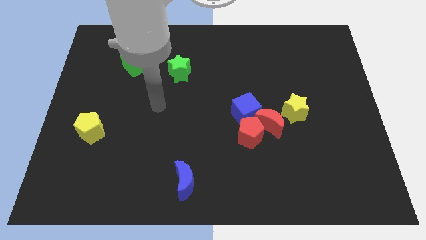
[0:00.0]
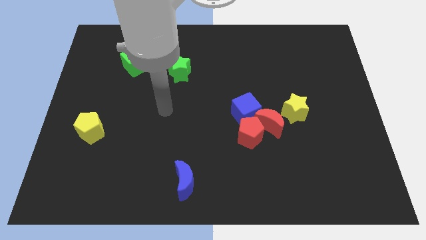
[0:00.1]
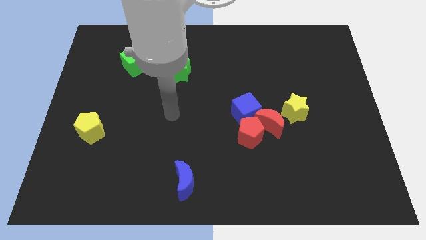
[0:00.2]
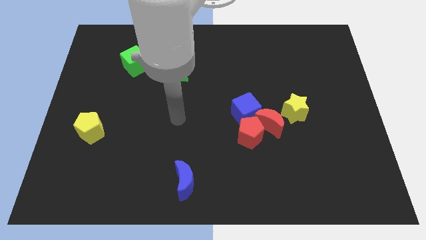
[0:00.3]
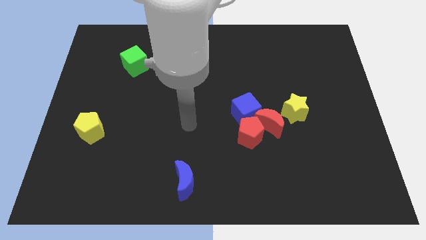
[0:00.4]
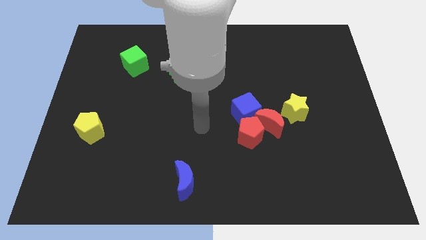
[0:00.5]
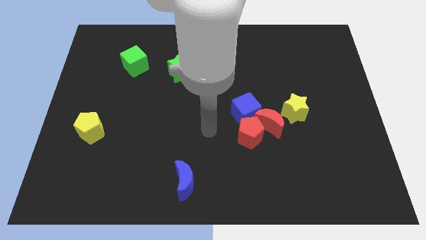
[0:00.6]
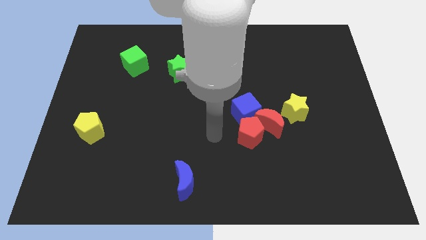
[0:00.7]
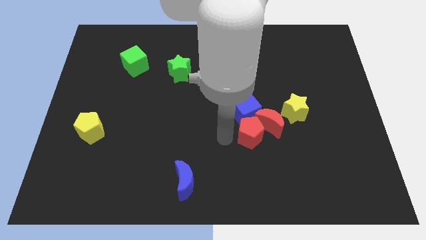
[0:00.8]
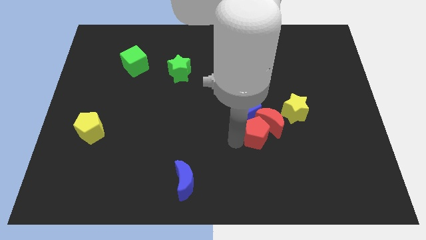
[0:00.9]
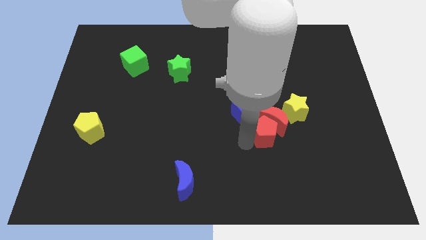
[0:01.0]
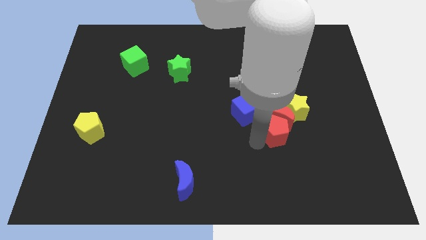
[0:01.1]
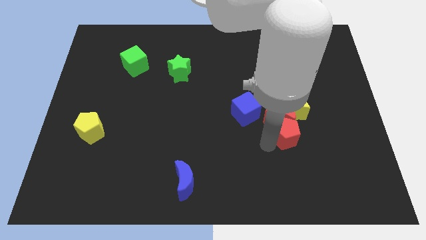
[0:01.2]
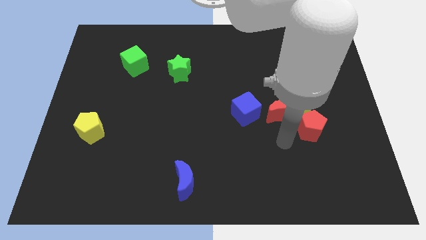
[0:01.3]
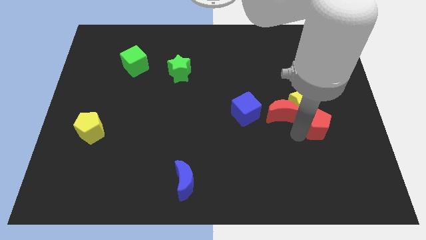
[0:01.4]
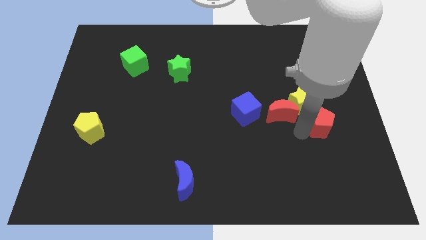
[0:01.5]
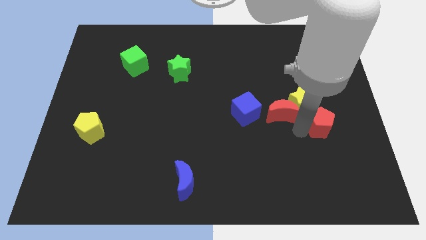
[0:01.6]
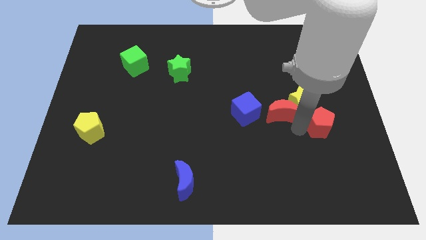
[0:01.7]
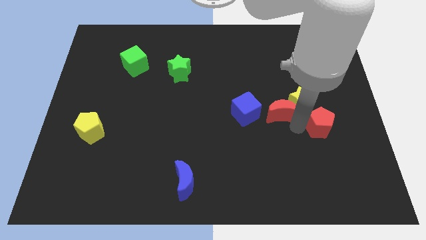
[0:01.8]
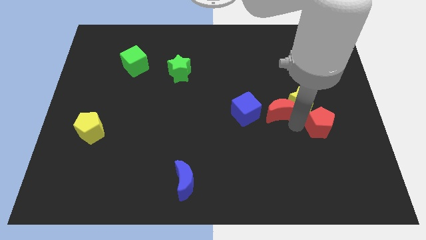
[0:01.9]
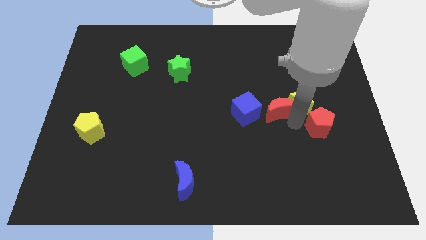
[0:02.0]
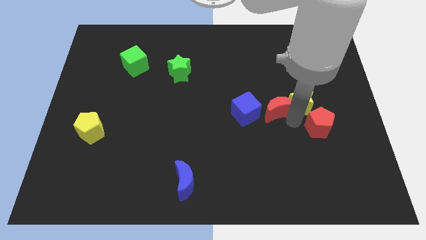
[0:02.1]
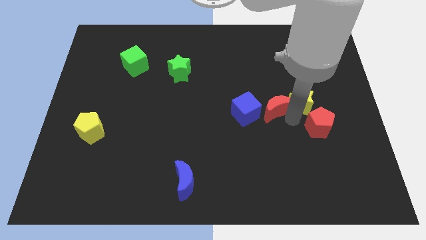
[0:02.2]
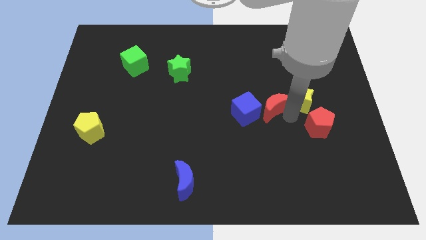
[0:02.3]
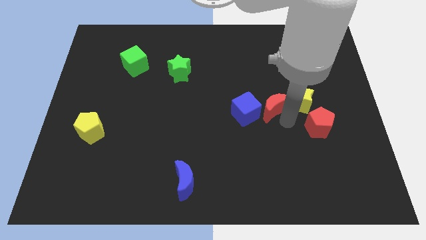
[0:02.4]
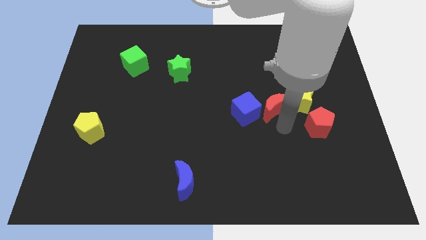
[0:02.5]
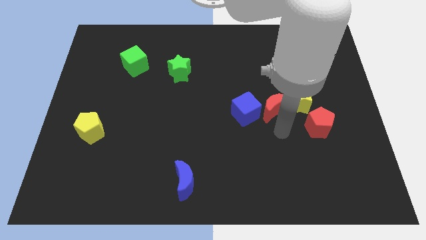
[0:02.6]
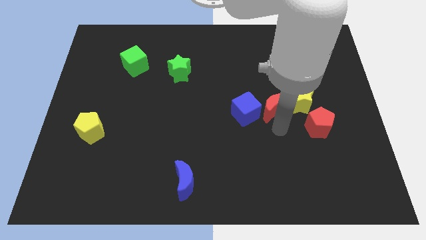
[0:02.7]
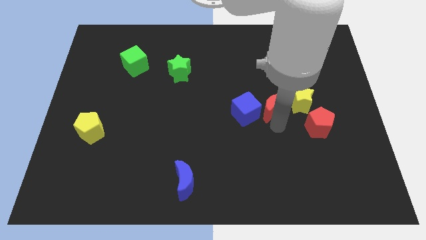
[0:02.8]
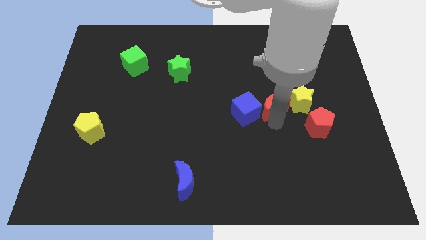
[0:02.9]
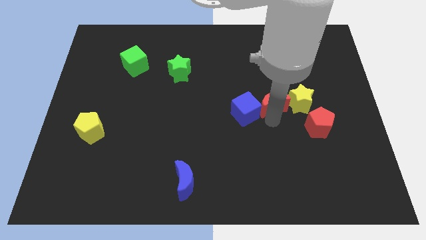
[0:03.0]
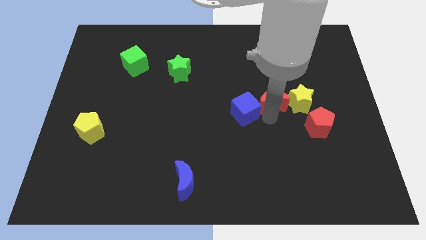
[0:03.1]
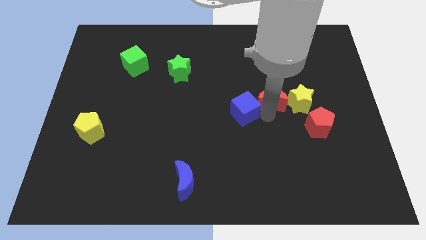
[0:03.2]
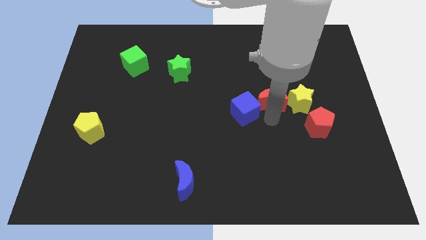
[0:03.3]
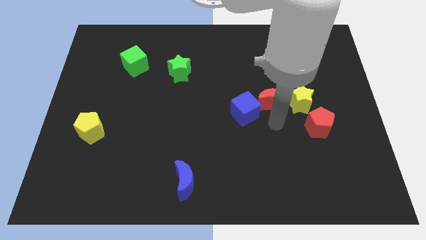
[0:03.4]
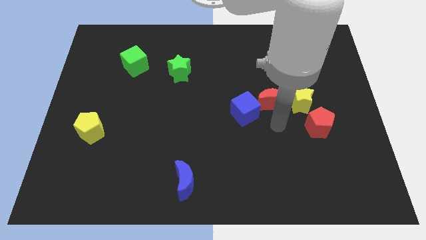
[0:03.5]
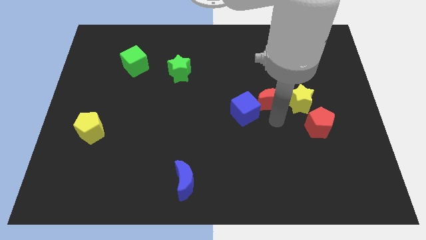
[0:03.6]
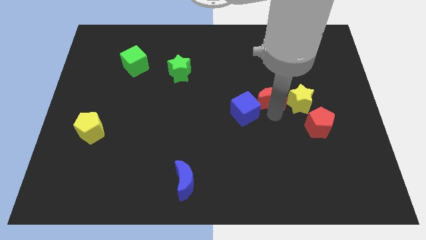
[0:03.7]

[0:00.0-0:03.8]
slightly move the red moon upwards

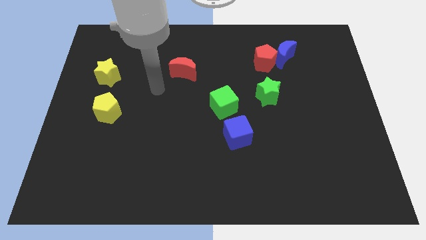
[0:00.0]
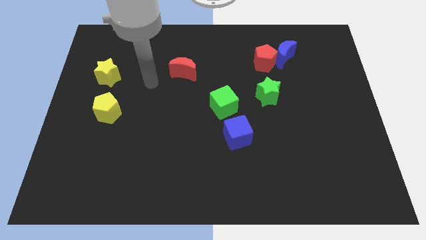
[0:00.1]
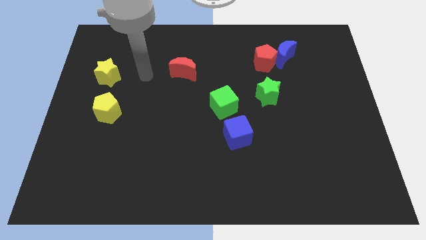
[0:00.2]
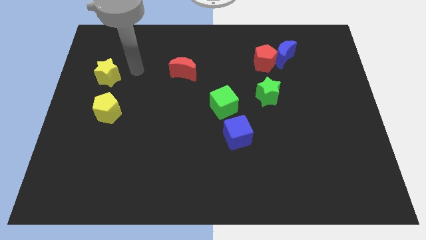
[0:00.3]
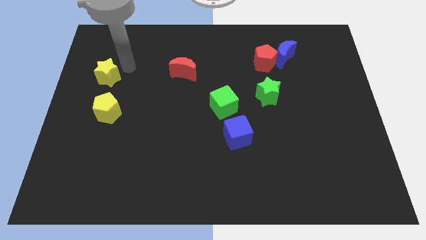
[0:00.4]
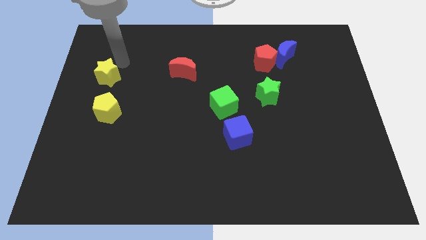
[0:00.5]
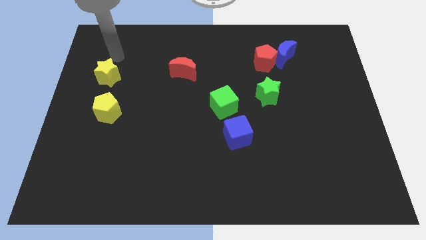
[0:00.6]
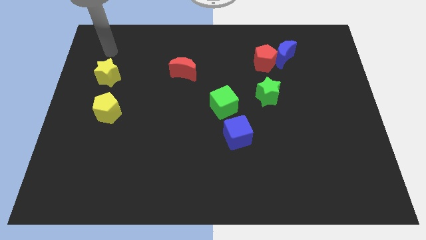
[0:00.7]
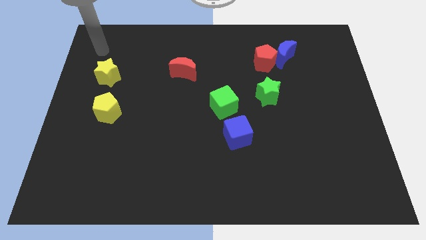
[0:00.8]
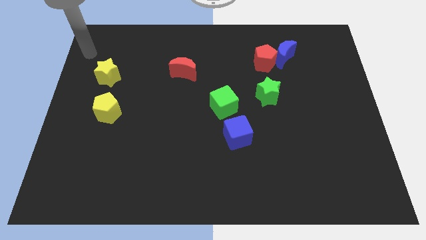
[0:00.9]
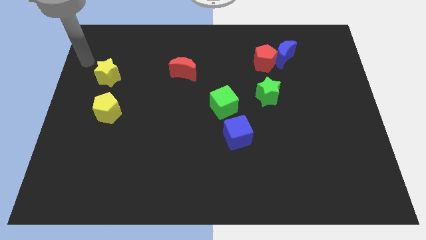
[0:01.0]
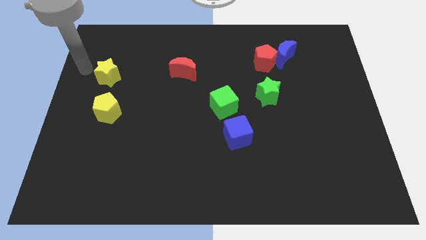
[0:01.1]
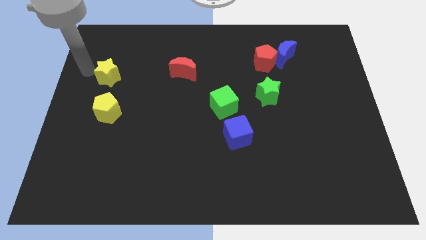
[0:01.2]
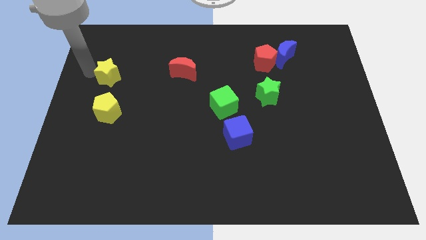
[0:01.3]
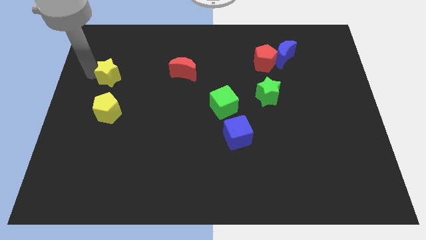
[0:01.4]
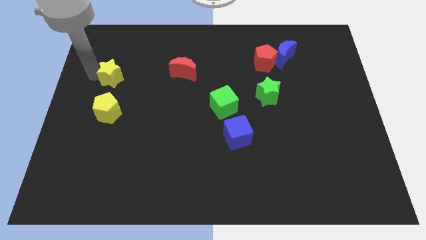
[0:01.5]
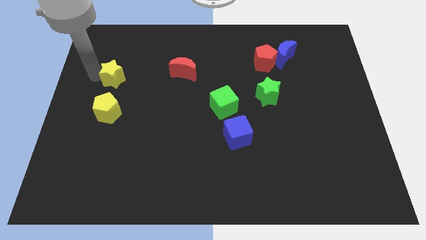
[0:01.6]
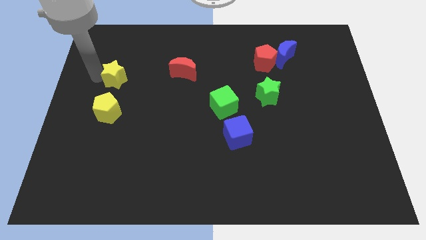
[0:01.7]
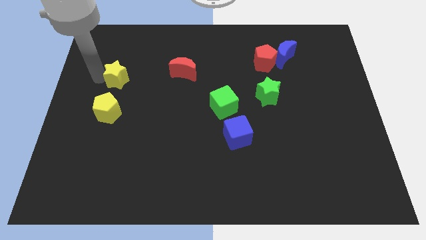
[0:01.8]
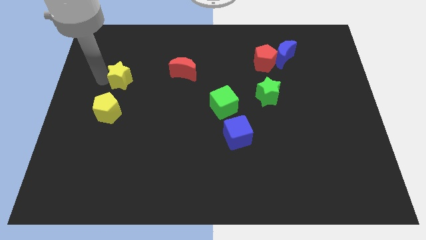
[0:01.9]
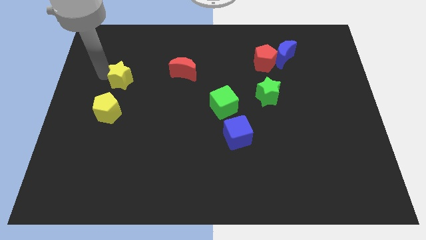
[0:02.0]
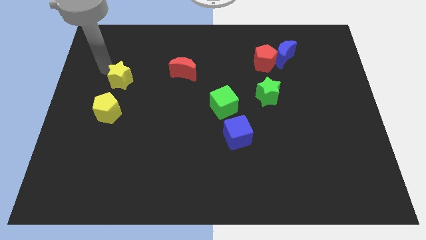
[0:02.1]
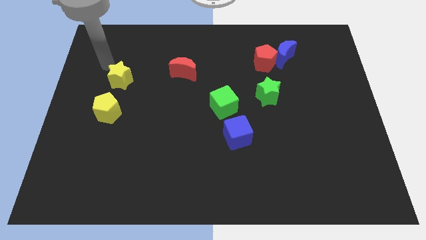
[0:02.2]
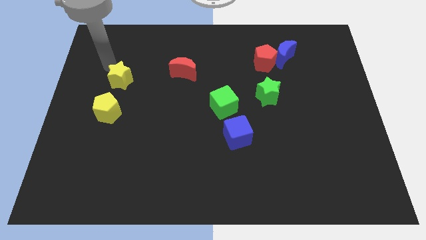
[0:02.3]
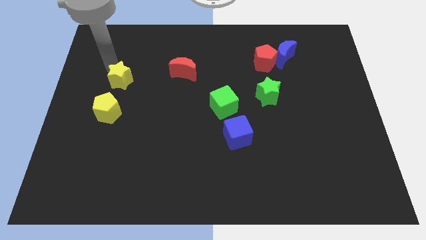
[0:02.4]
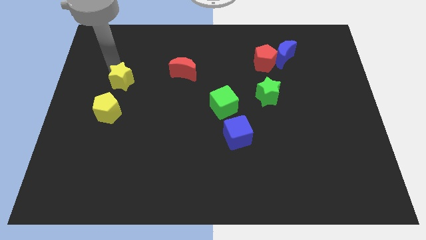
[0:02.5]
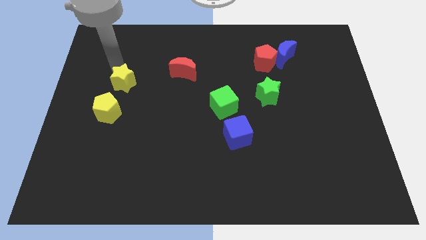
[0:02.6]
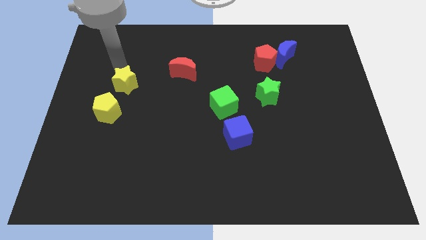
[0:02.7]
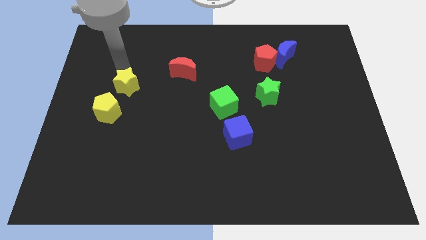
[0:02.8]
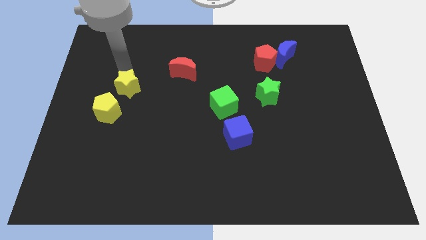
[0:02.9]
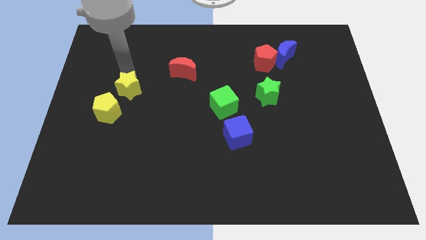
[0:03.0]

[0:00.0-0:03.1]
push the yellow star diagonally downwards and right a little bit

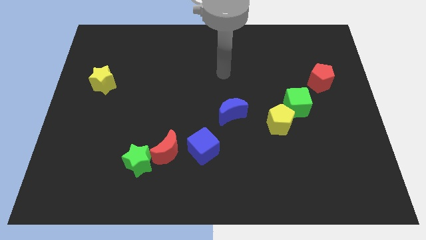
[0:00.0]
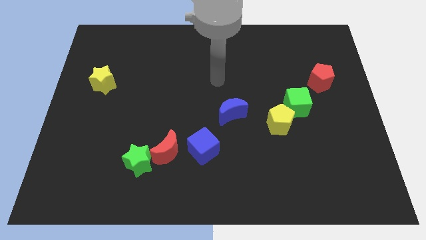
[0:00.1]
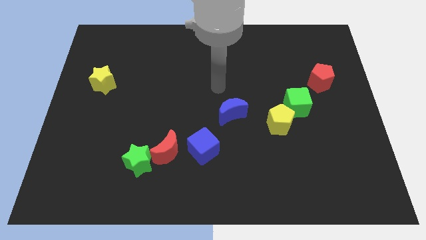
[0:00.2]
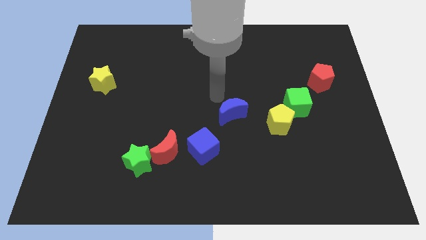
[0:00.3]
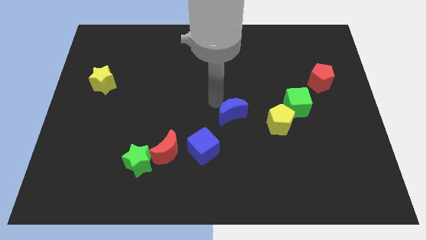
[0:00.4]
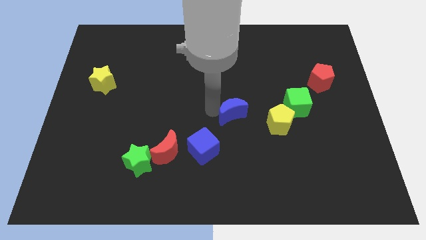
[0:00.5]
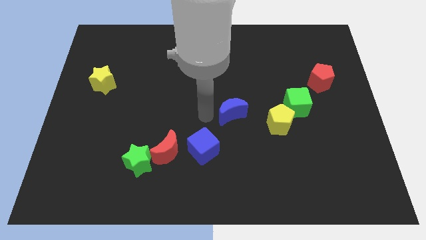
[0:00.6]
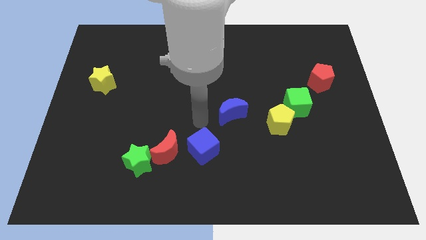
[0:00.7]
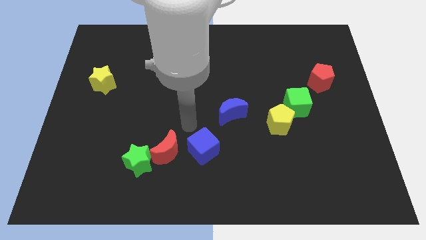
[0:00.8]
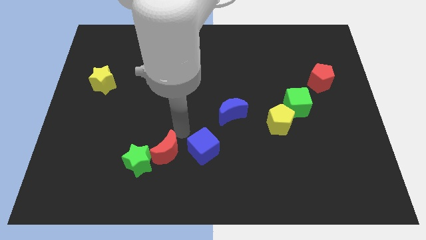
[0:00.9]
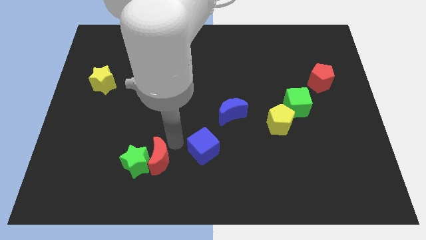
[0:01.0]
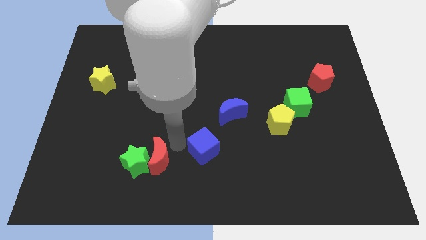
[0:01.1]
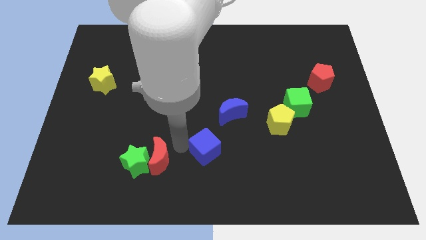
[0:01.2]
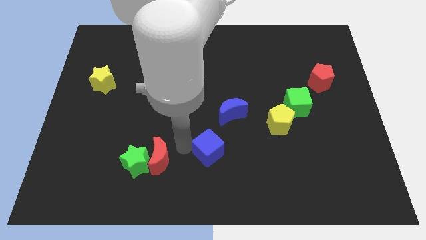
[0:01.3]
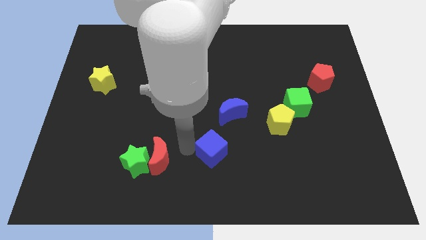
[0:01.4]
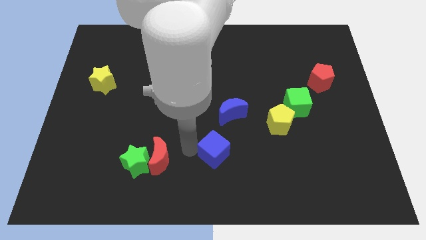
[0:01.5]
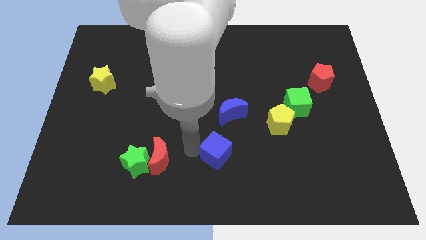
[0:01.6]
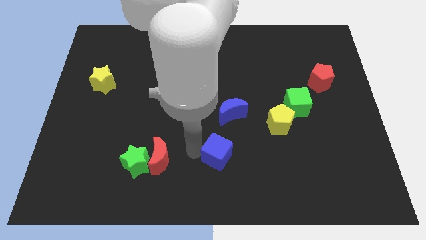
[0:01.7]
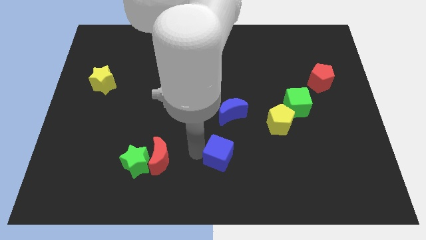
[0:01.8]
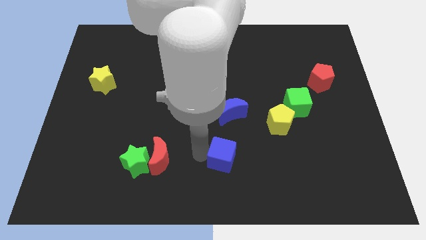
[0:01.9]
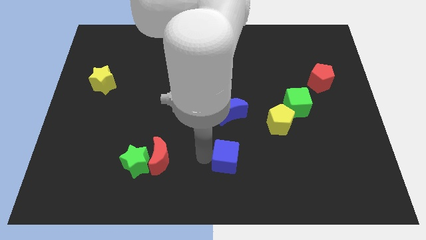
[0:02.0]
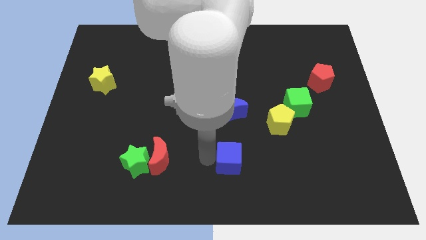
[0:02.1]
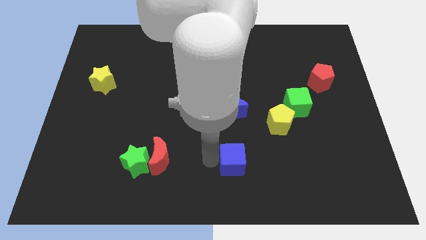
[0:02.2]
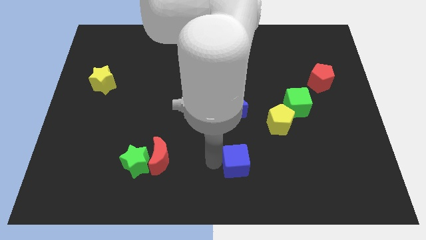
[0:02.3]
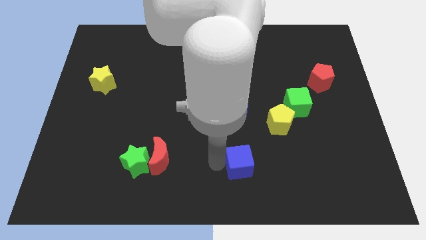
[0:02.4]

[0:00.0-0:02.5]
move the blue cube right a little
